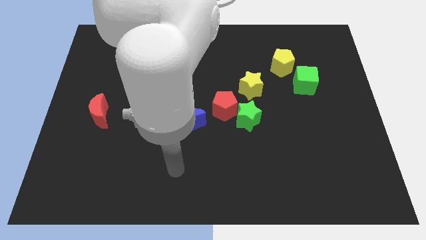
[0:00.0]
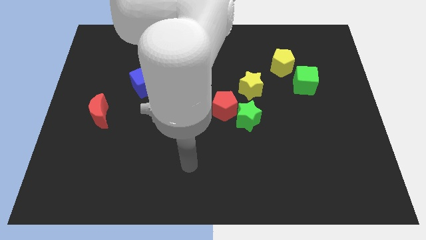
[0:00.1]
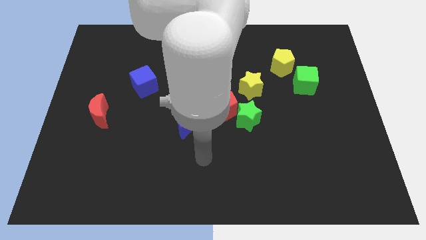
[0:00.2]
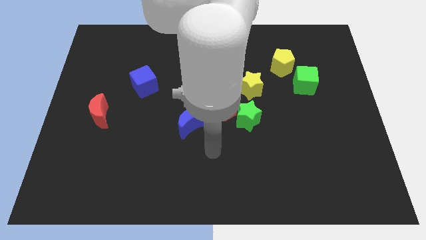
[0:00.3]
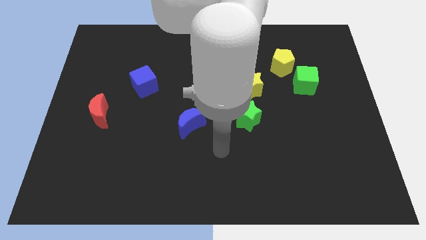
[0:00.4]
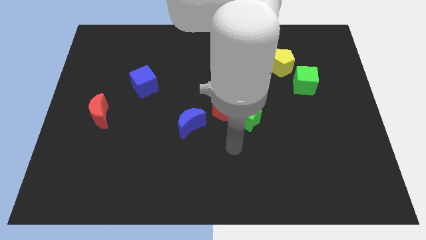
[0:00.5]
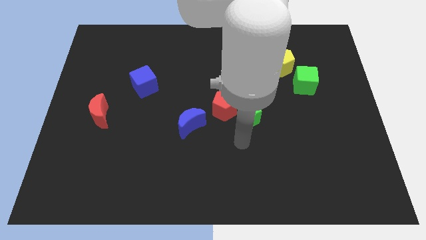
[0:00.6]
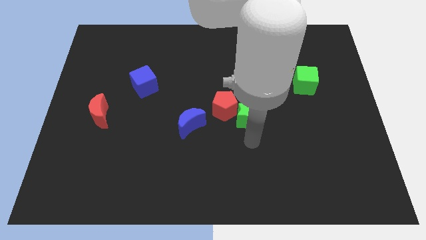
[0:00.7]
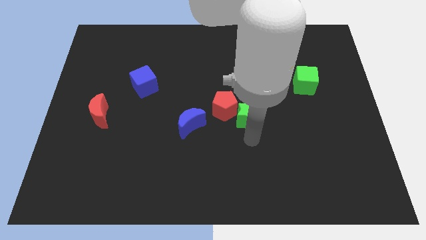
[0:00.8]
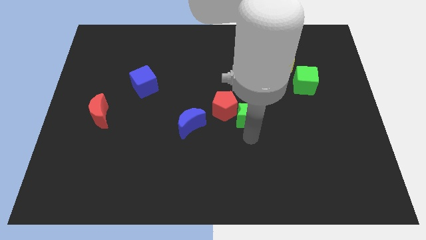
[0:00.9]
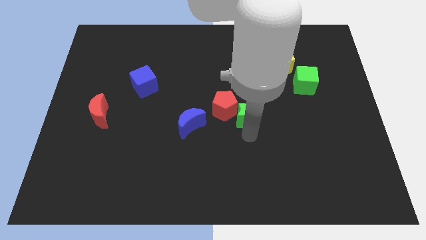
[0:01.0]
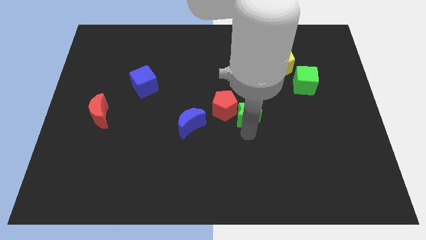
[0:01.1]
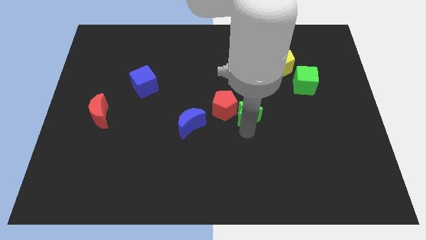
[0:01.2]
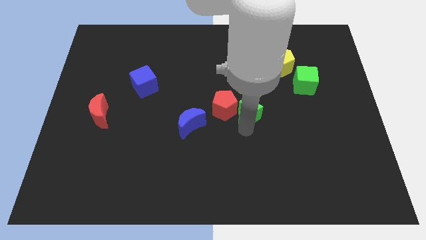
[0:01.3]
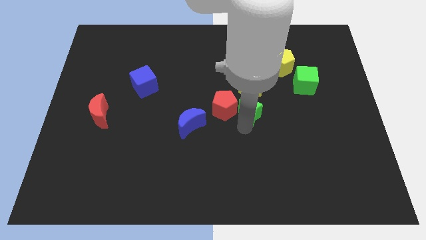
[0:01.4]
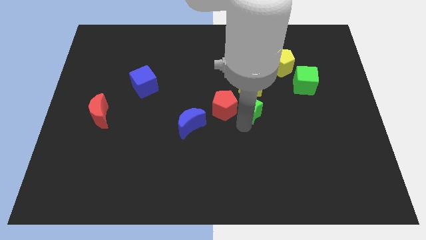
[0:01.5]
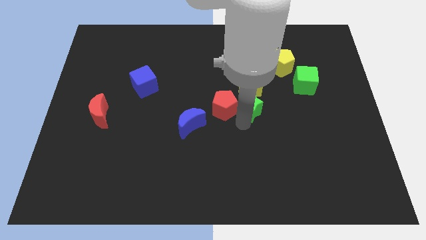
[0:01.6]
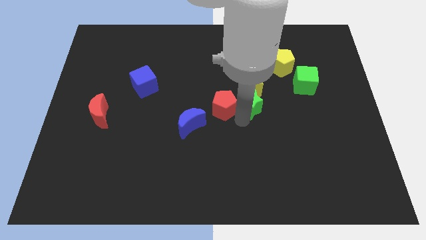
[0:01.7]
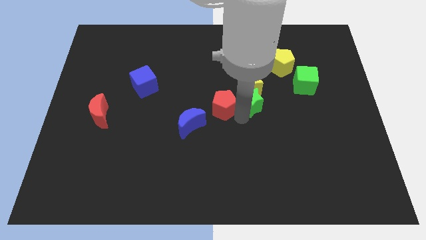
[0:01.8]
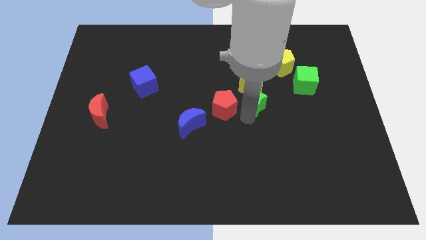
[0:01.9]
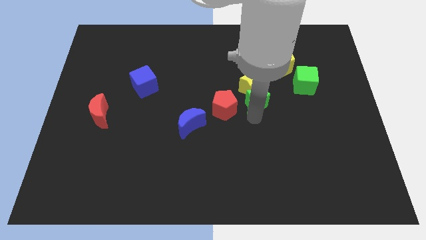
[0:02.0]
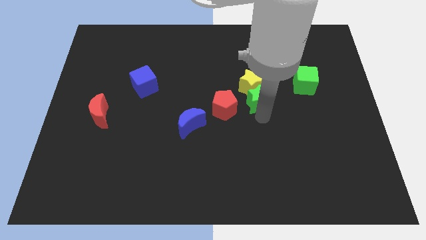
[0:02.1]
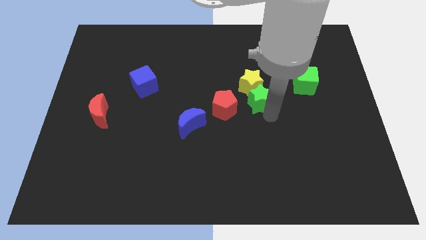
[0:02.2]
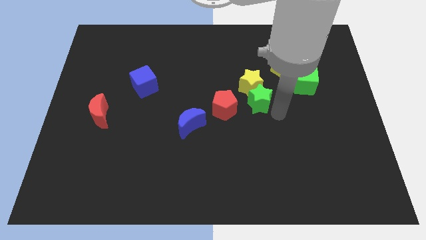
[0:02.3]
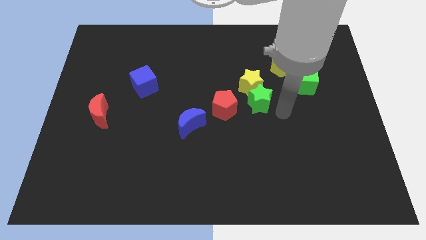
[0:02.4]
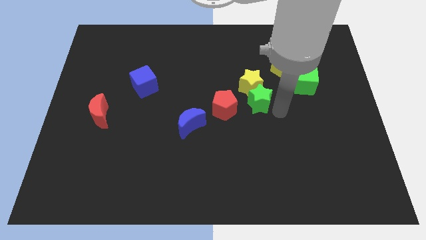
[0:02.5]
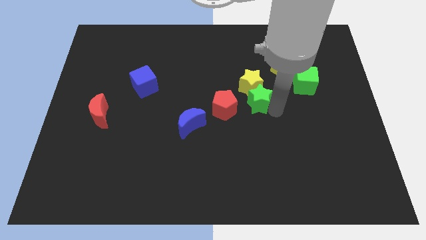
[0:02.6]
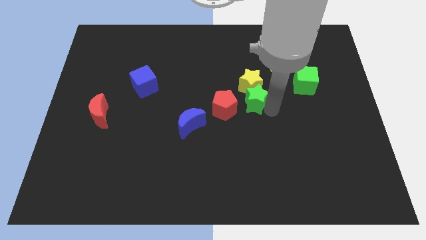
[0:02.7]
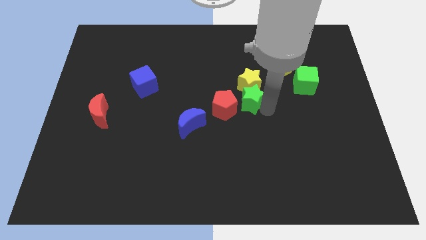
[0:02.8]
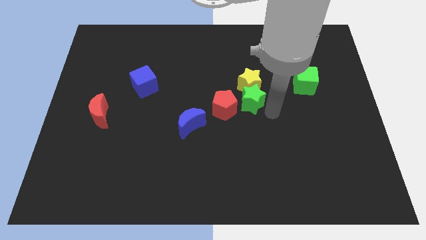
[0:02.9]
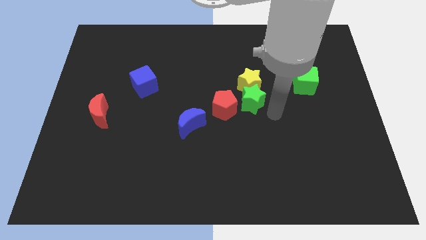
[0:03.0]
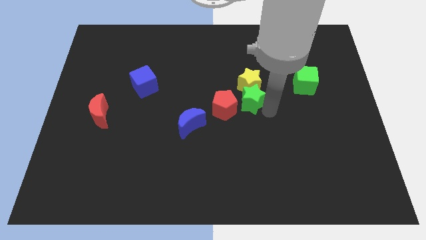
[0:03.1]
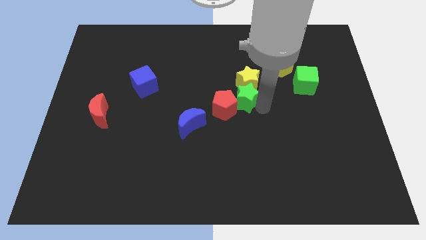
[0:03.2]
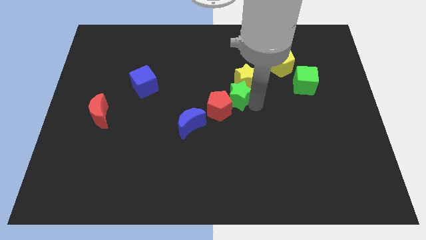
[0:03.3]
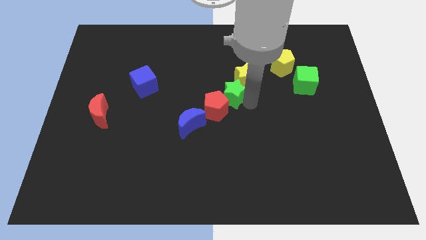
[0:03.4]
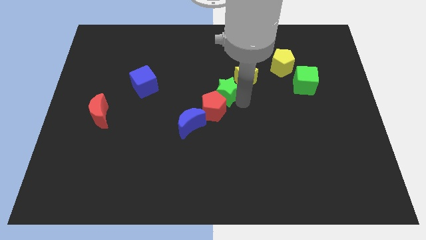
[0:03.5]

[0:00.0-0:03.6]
move the green star a little up

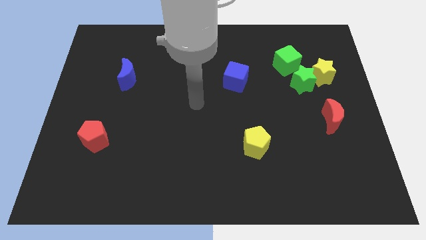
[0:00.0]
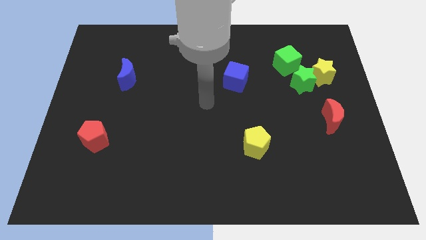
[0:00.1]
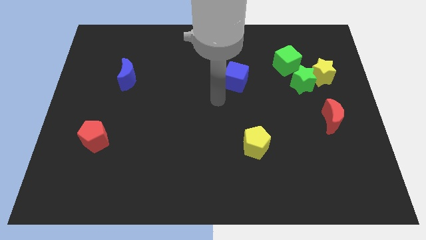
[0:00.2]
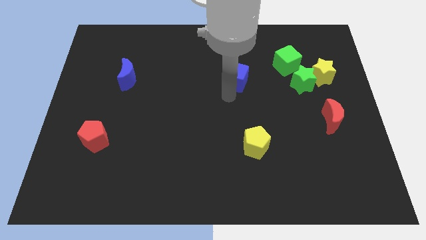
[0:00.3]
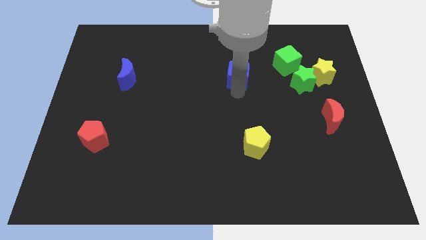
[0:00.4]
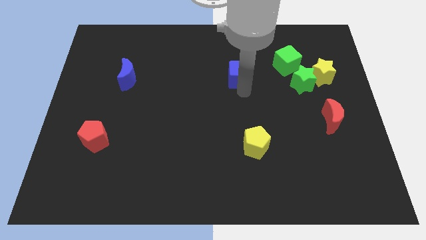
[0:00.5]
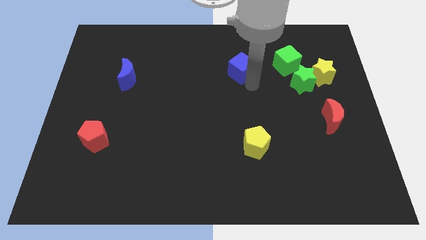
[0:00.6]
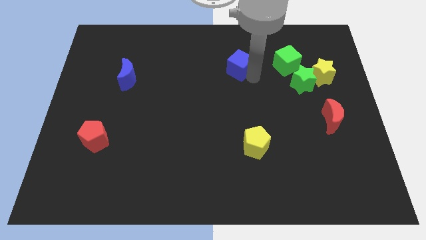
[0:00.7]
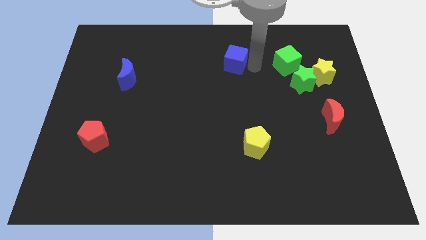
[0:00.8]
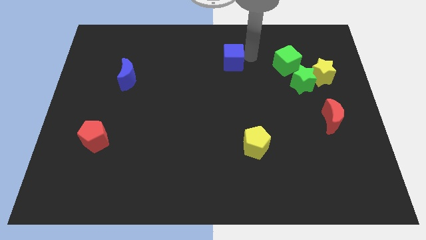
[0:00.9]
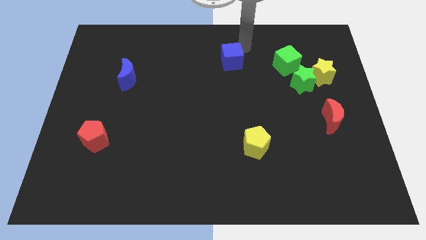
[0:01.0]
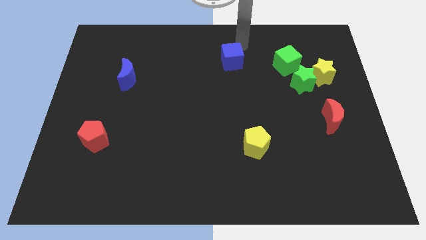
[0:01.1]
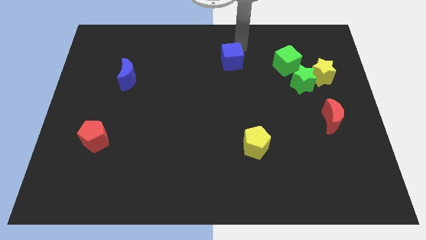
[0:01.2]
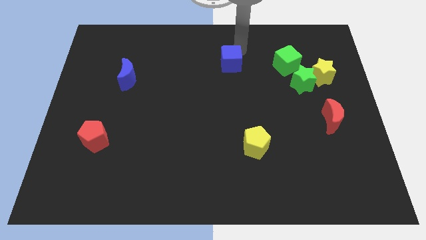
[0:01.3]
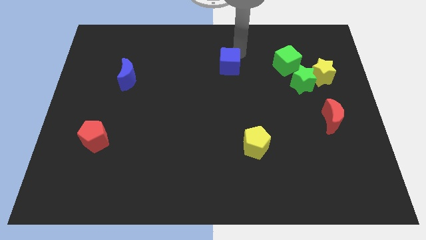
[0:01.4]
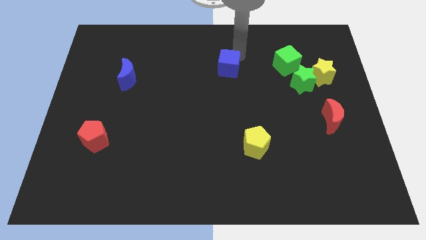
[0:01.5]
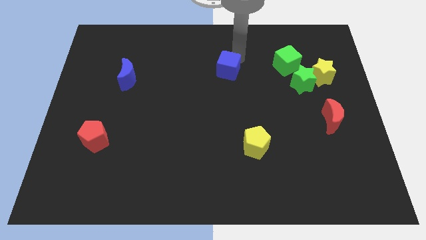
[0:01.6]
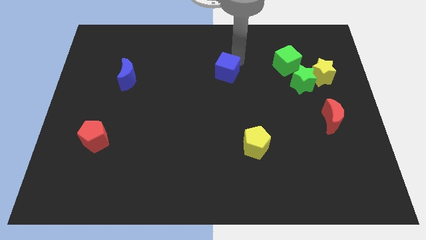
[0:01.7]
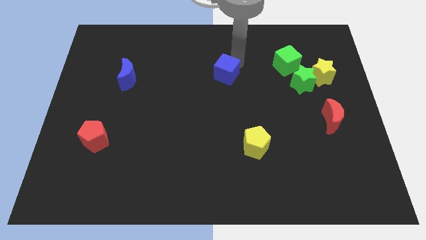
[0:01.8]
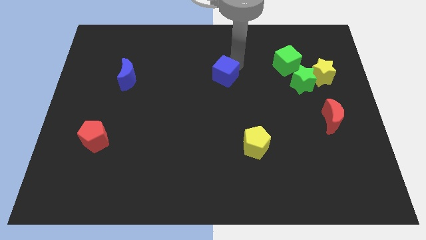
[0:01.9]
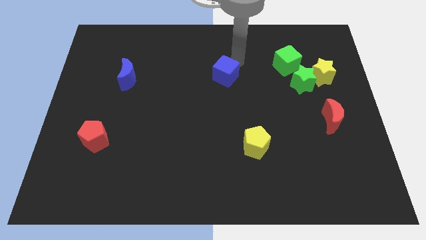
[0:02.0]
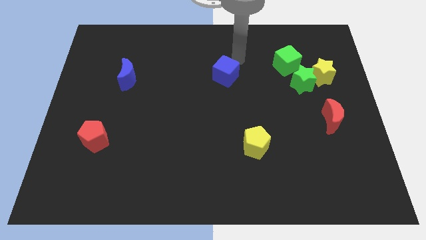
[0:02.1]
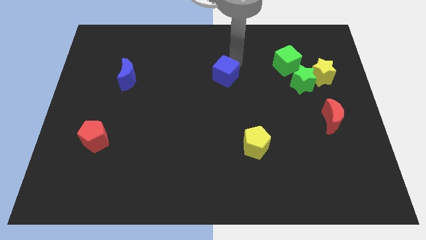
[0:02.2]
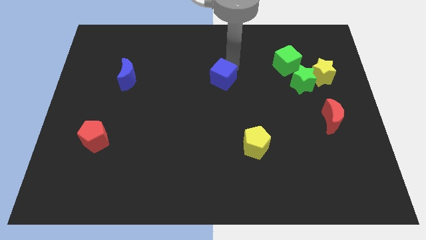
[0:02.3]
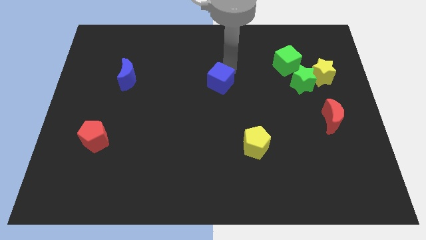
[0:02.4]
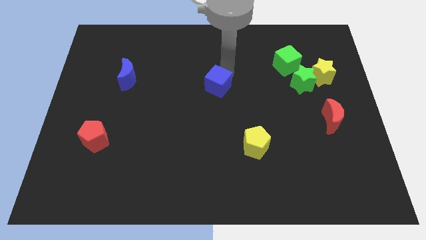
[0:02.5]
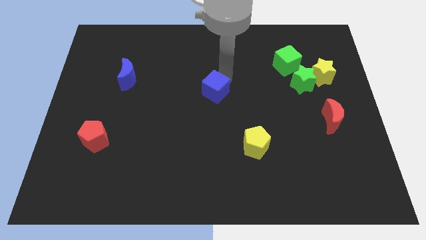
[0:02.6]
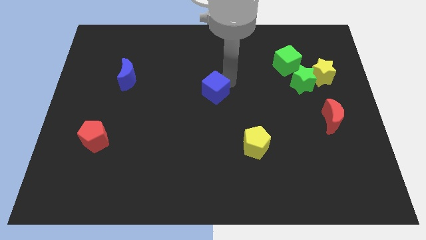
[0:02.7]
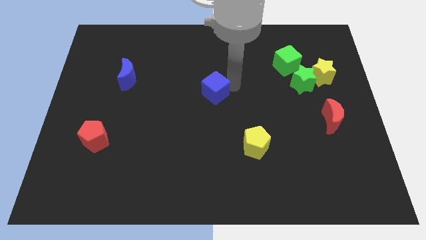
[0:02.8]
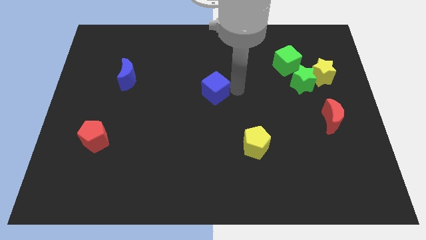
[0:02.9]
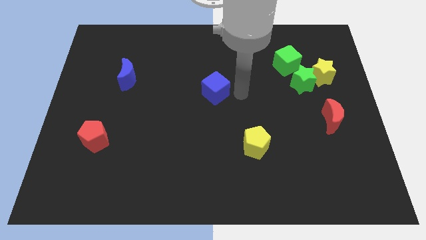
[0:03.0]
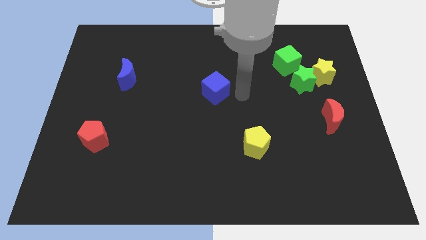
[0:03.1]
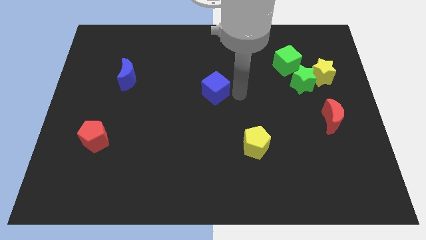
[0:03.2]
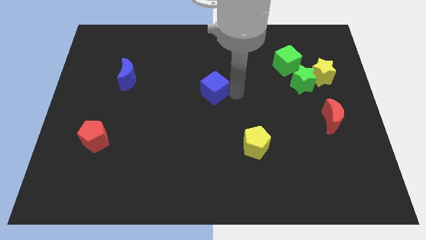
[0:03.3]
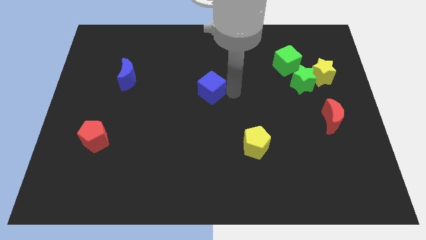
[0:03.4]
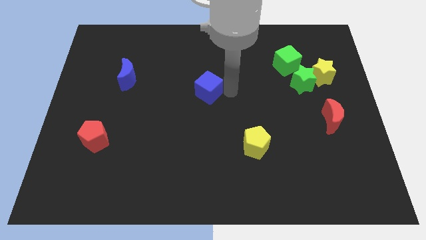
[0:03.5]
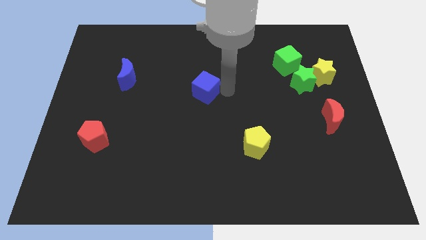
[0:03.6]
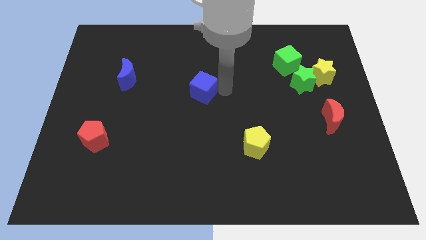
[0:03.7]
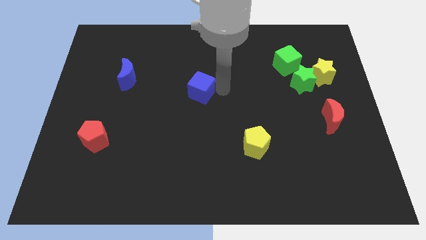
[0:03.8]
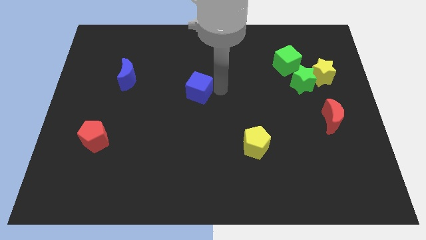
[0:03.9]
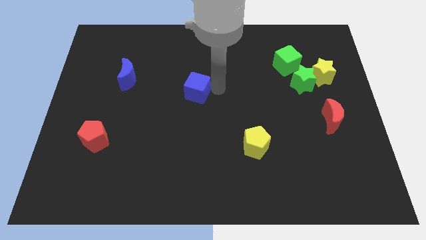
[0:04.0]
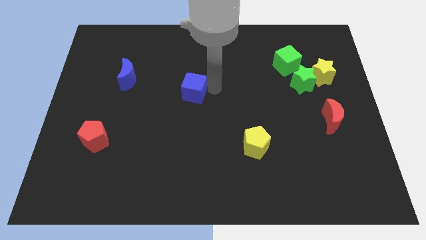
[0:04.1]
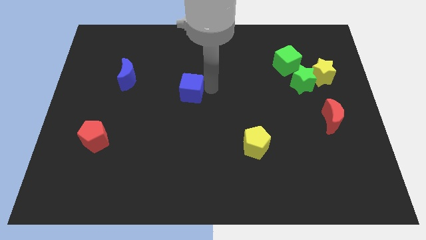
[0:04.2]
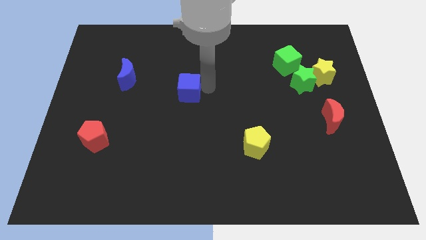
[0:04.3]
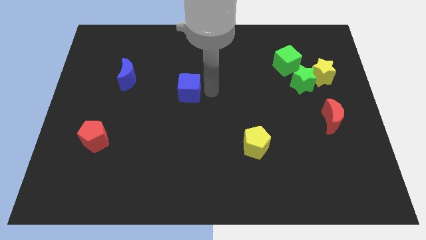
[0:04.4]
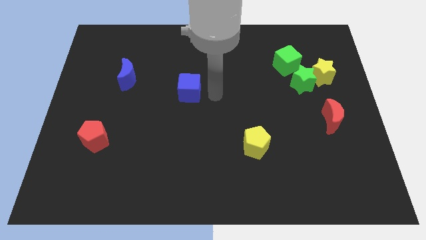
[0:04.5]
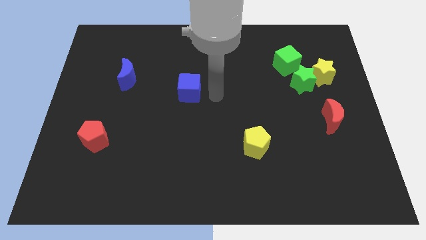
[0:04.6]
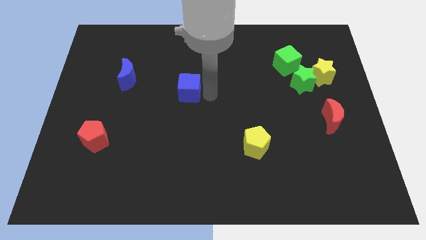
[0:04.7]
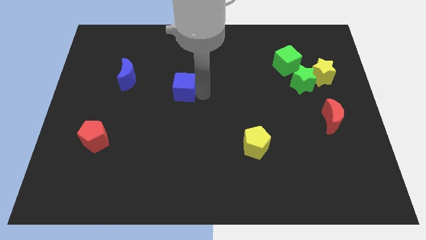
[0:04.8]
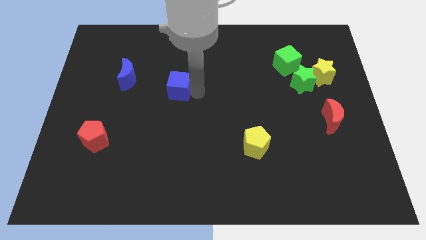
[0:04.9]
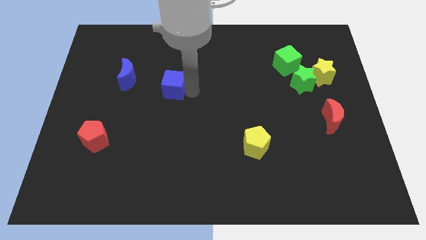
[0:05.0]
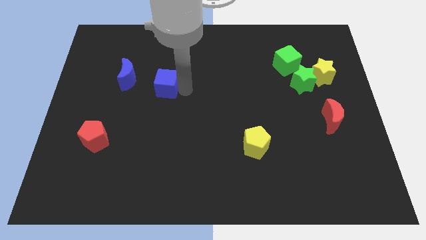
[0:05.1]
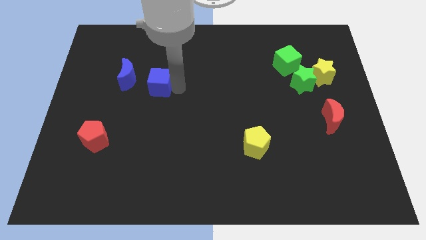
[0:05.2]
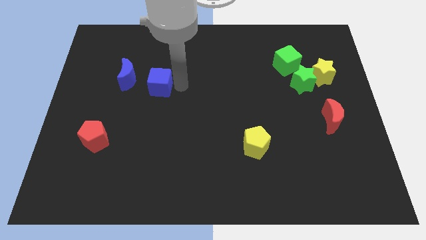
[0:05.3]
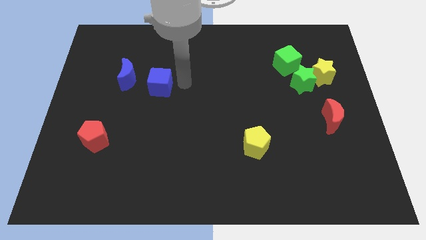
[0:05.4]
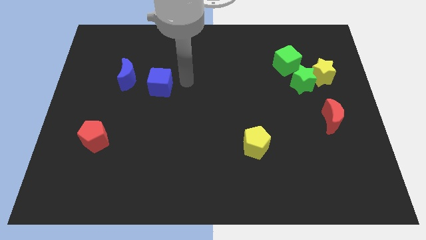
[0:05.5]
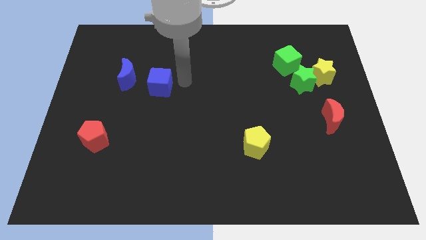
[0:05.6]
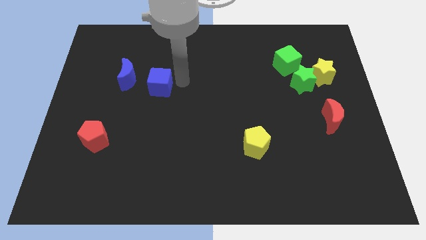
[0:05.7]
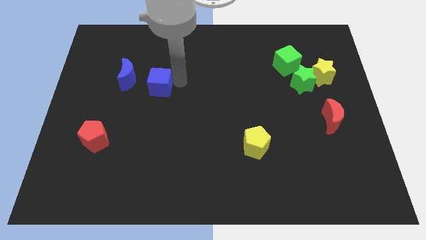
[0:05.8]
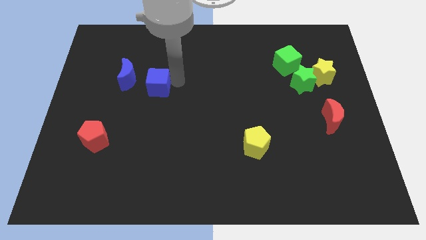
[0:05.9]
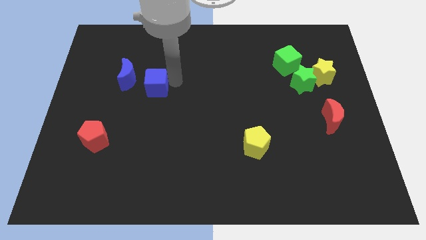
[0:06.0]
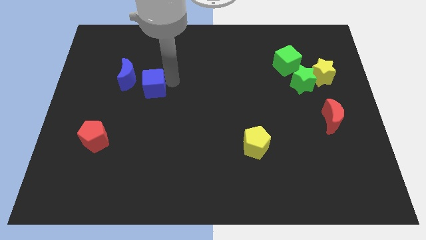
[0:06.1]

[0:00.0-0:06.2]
push the blue cube left
